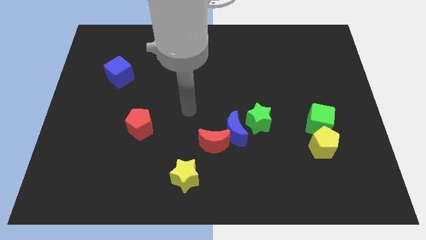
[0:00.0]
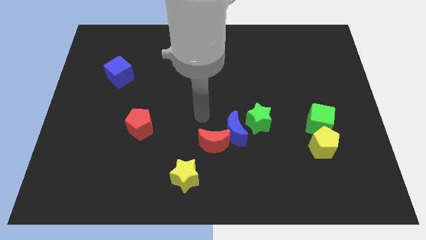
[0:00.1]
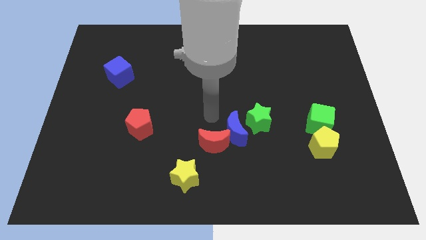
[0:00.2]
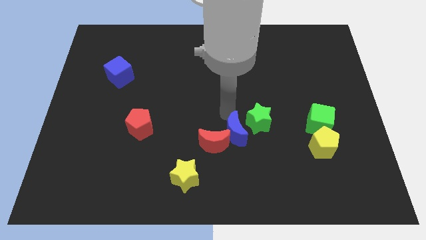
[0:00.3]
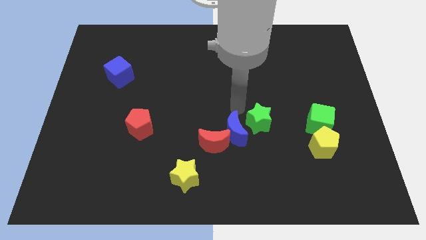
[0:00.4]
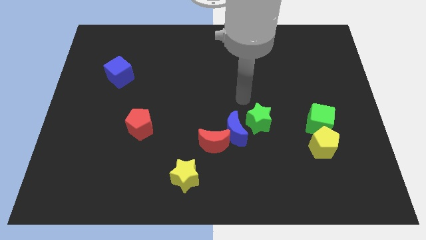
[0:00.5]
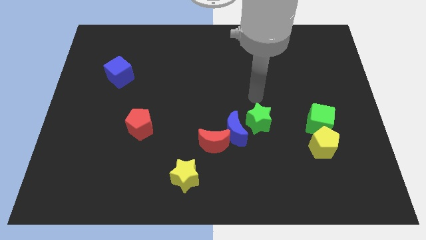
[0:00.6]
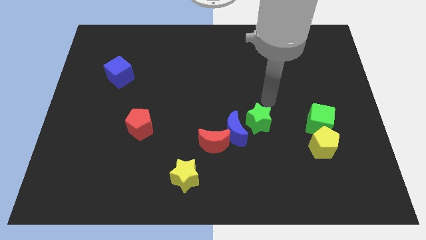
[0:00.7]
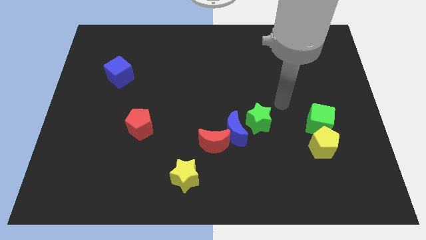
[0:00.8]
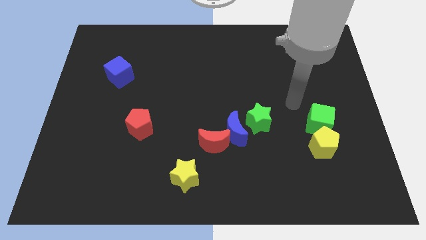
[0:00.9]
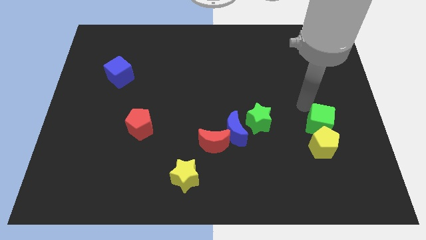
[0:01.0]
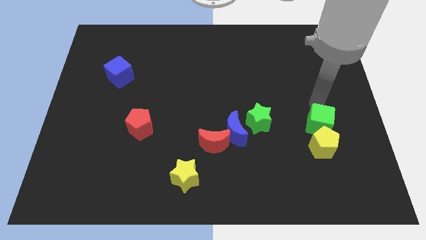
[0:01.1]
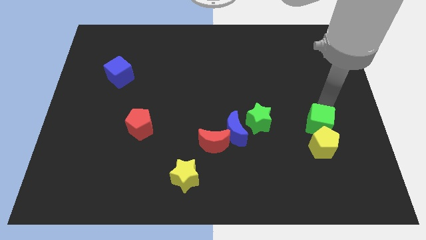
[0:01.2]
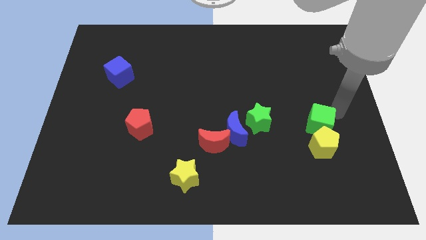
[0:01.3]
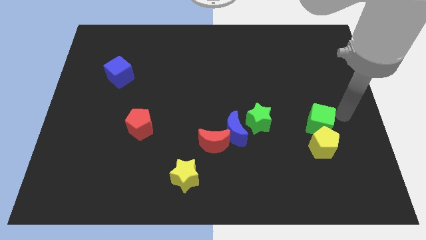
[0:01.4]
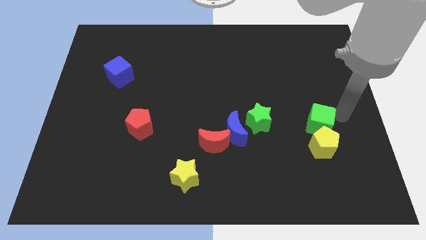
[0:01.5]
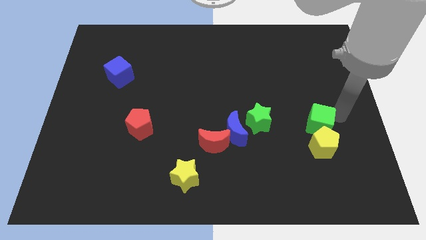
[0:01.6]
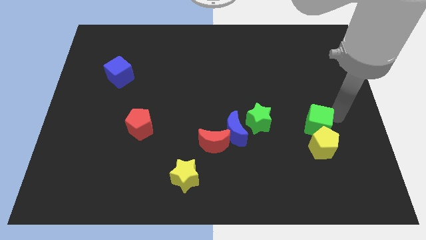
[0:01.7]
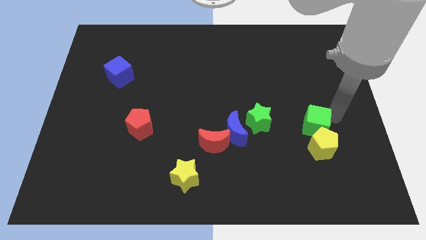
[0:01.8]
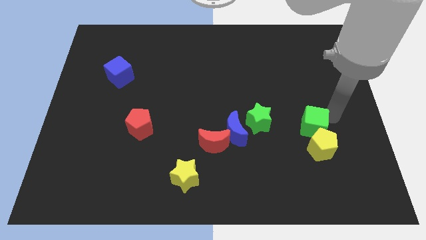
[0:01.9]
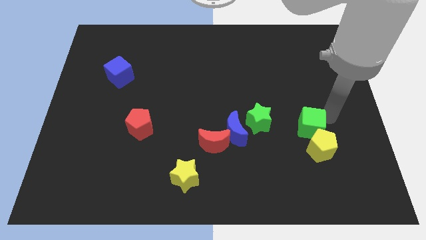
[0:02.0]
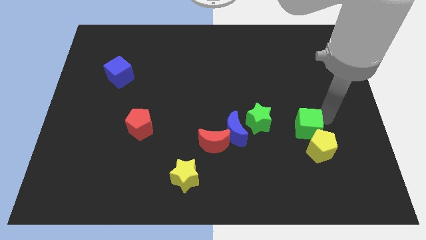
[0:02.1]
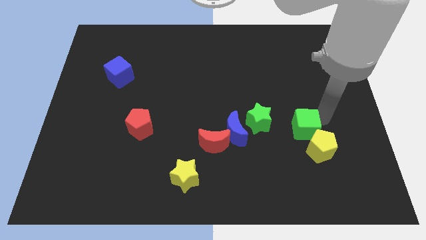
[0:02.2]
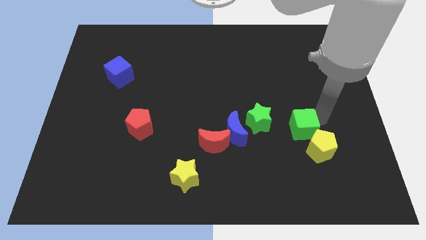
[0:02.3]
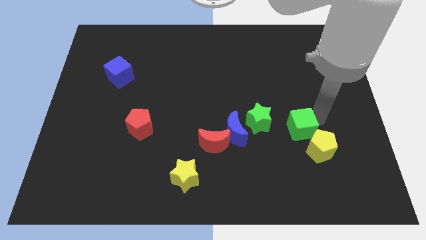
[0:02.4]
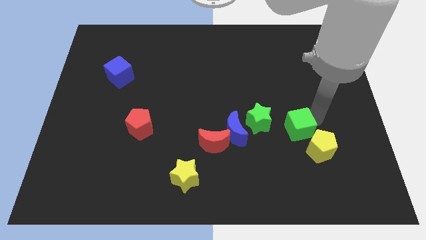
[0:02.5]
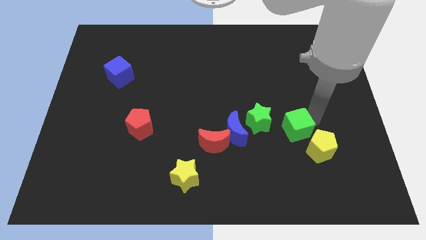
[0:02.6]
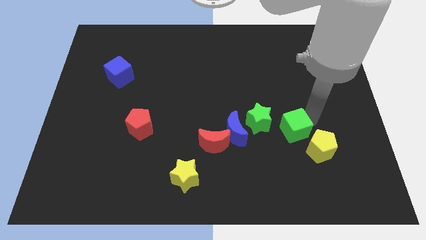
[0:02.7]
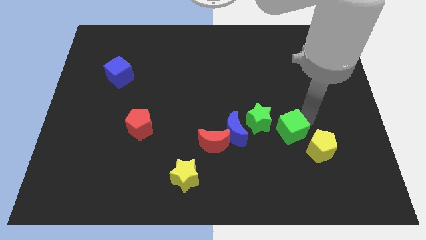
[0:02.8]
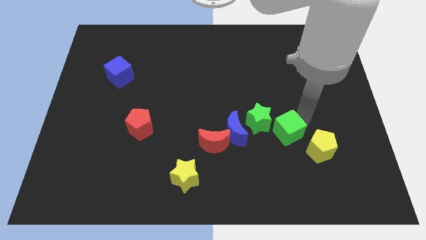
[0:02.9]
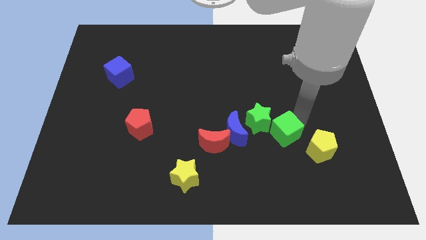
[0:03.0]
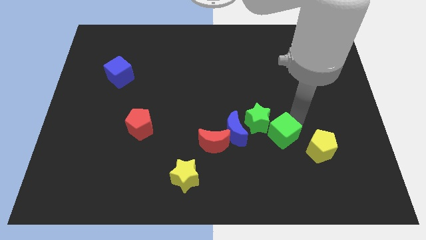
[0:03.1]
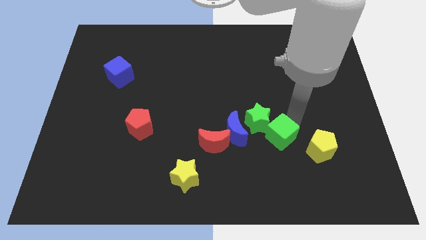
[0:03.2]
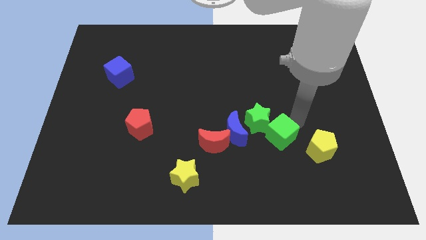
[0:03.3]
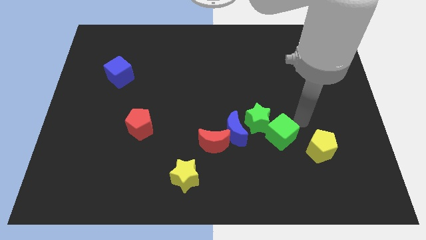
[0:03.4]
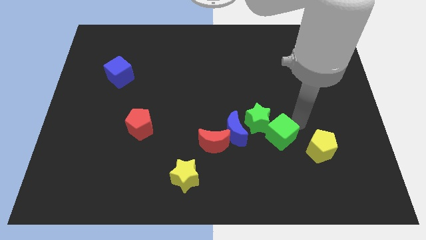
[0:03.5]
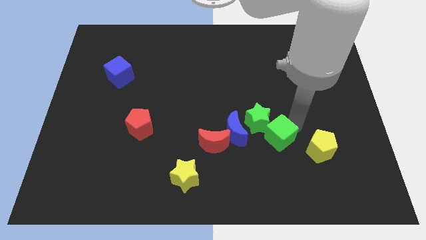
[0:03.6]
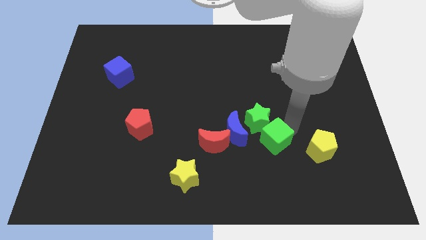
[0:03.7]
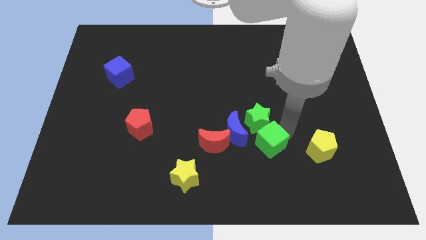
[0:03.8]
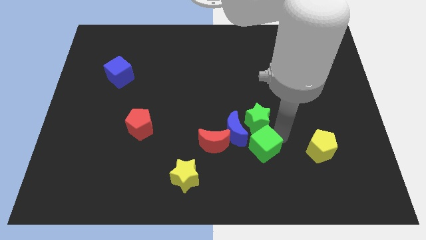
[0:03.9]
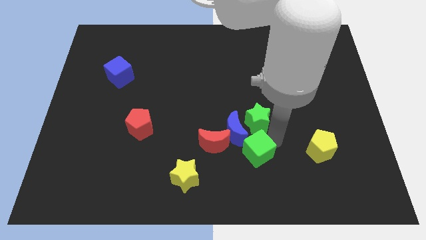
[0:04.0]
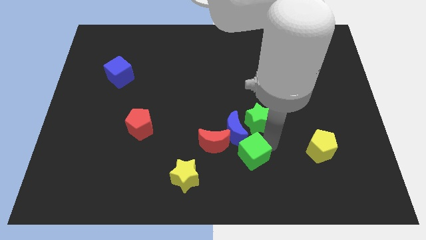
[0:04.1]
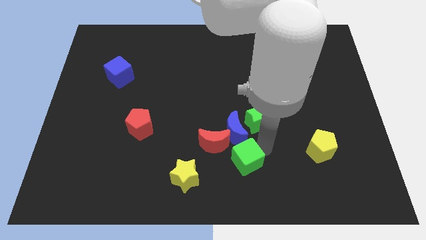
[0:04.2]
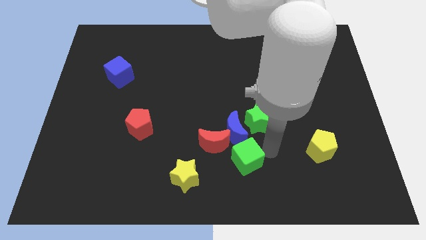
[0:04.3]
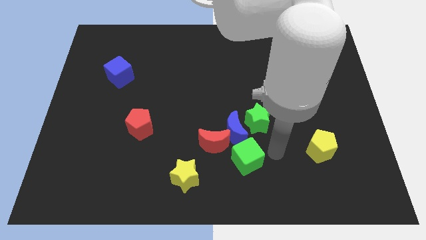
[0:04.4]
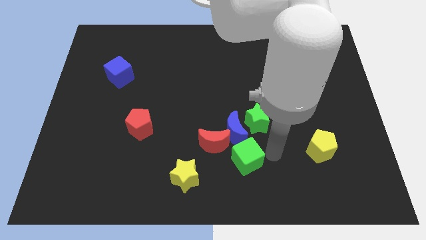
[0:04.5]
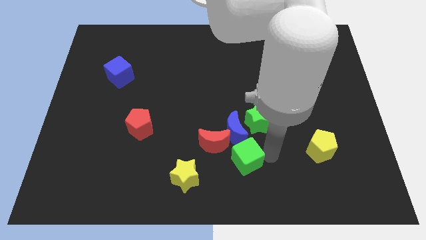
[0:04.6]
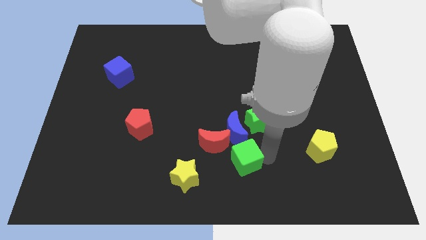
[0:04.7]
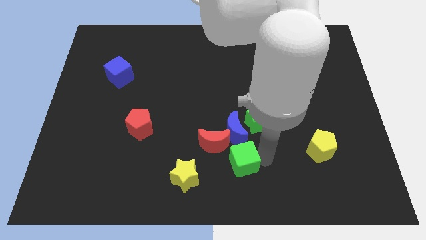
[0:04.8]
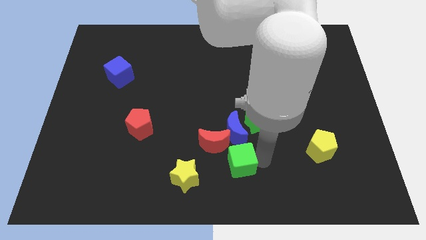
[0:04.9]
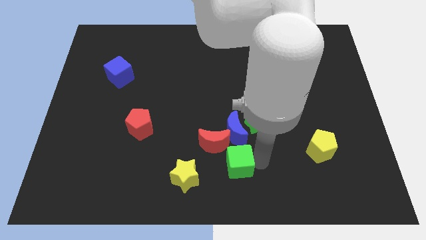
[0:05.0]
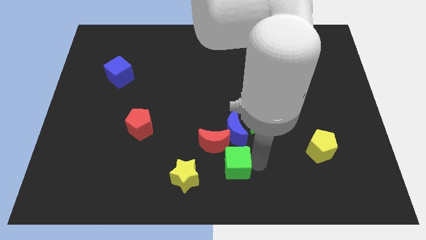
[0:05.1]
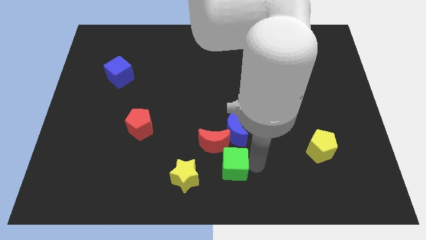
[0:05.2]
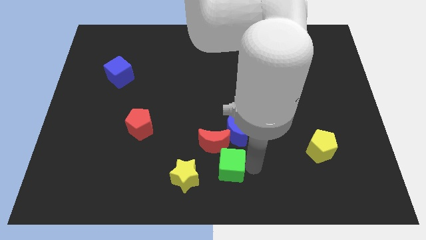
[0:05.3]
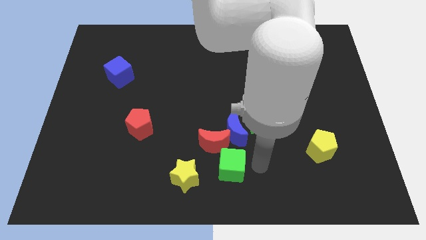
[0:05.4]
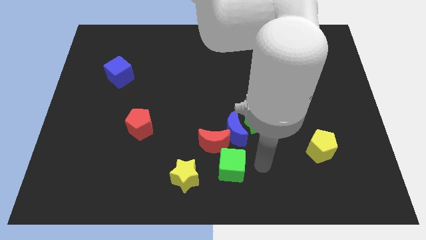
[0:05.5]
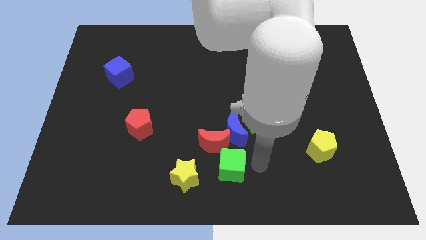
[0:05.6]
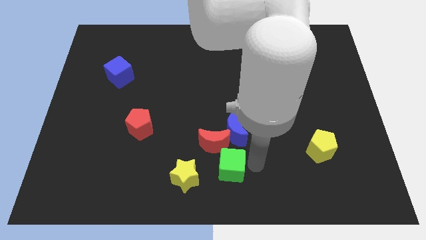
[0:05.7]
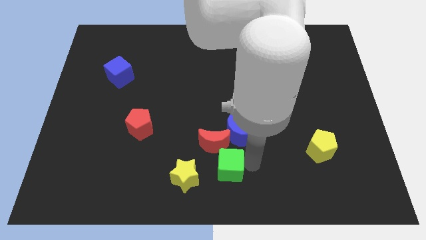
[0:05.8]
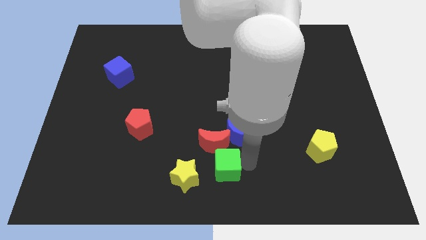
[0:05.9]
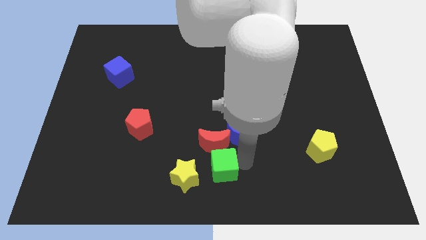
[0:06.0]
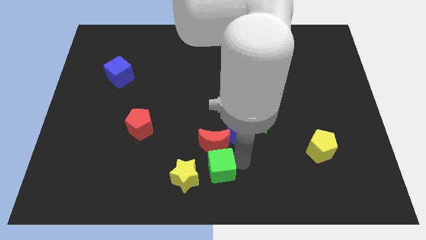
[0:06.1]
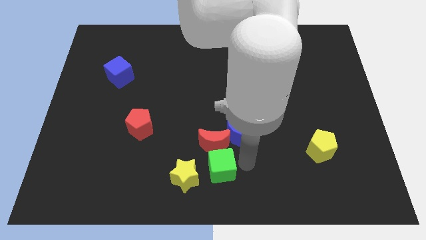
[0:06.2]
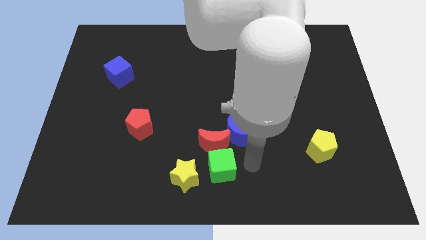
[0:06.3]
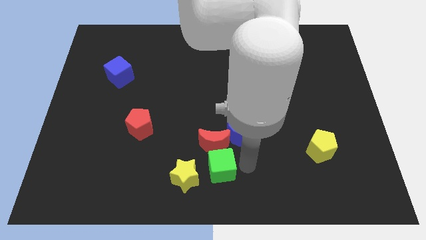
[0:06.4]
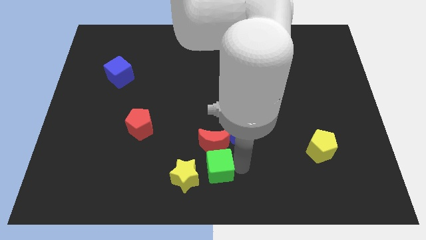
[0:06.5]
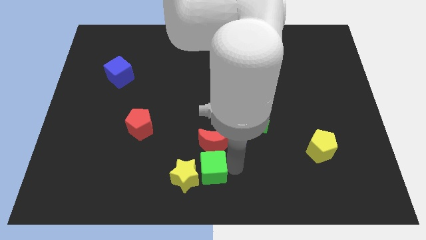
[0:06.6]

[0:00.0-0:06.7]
slide the green cube close to the yellow star

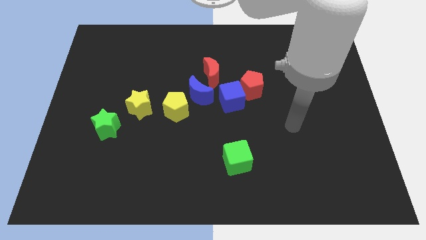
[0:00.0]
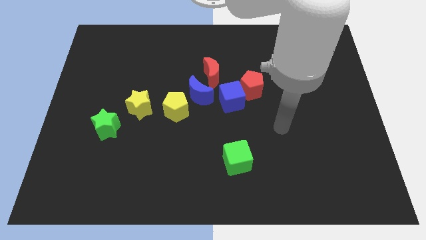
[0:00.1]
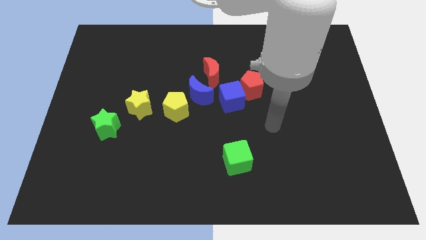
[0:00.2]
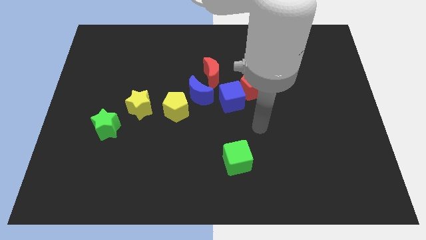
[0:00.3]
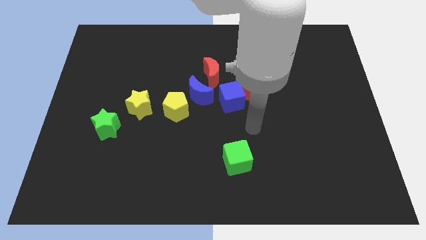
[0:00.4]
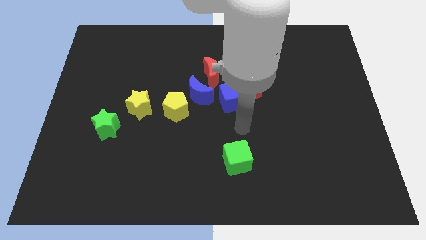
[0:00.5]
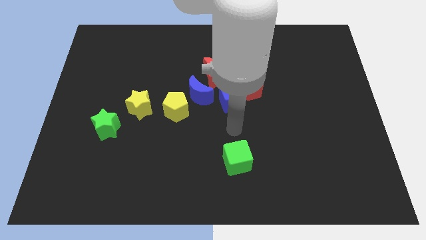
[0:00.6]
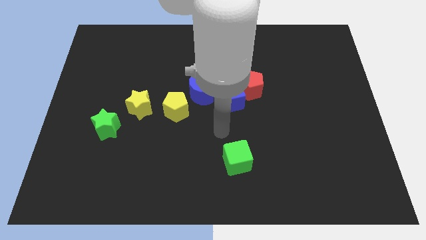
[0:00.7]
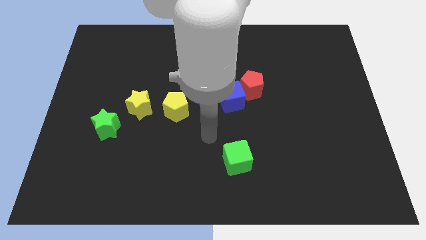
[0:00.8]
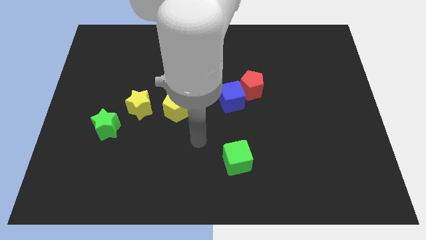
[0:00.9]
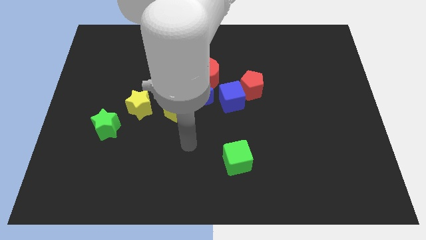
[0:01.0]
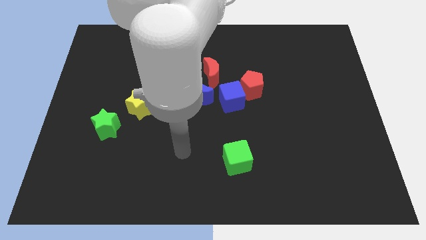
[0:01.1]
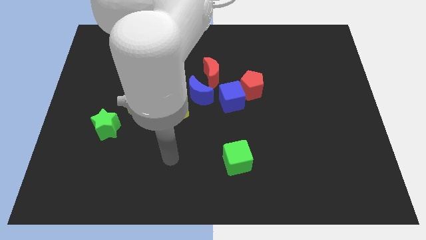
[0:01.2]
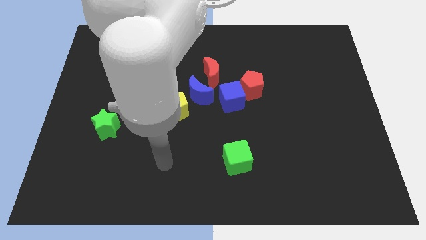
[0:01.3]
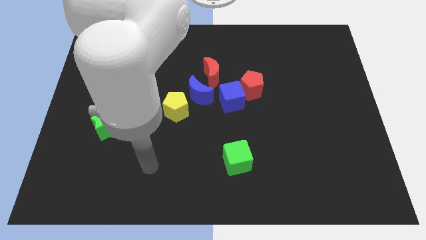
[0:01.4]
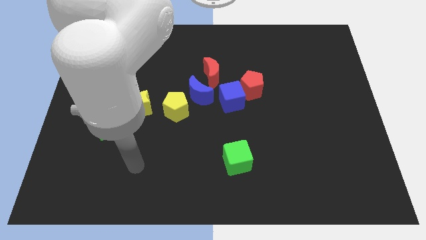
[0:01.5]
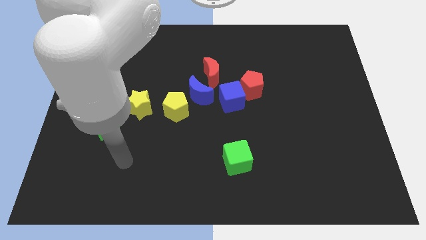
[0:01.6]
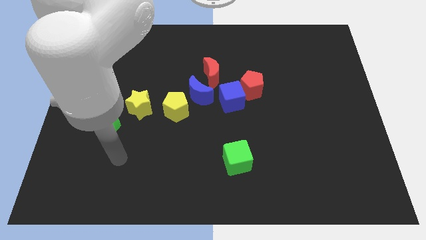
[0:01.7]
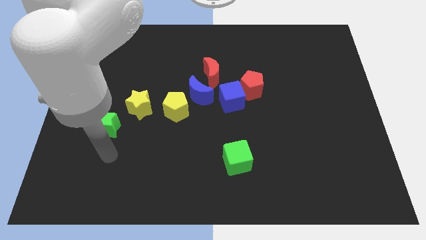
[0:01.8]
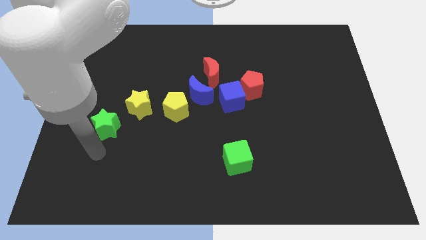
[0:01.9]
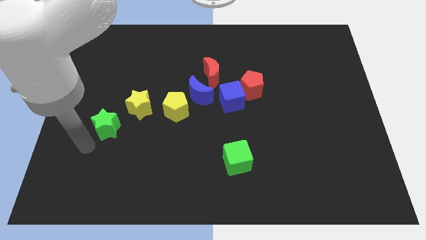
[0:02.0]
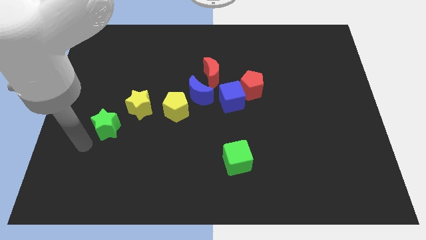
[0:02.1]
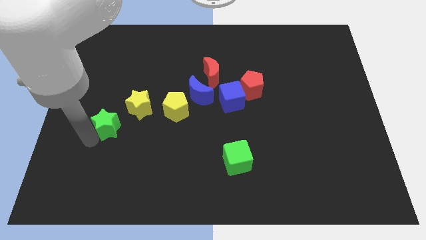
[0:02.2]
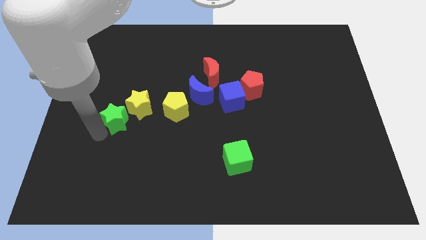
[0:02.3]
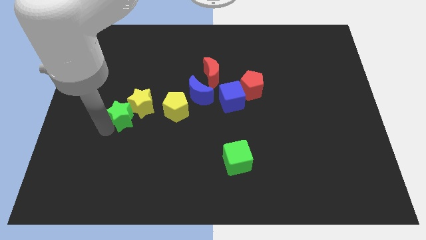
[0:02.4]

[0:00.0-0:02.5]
put the green star towards the yellow star
